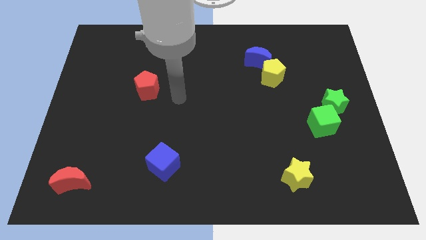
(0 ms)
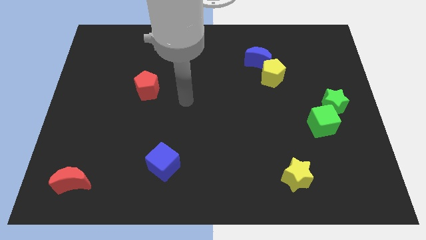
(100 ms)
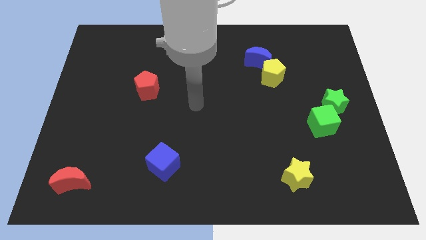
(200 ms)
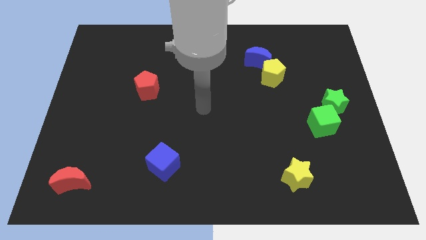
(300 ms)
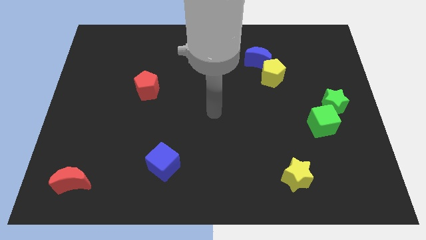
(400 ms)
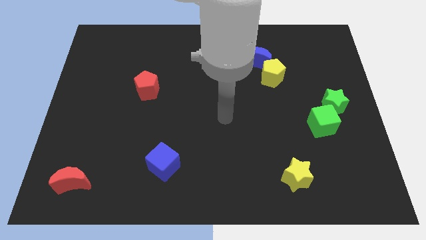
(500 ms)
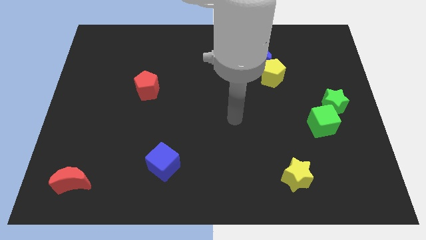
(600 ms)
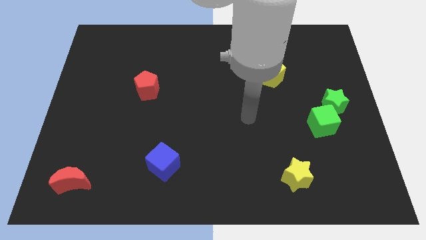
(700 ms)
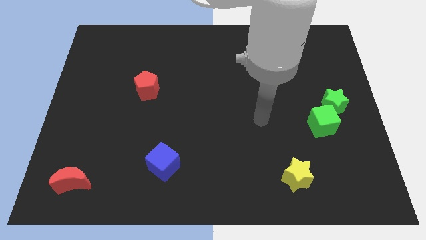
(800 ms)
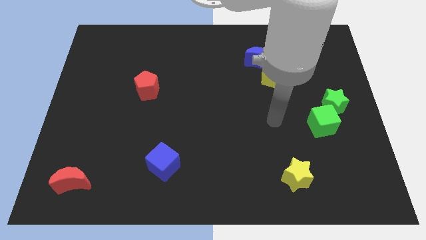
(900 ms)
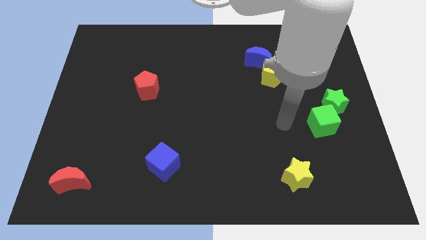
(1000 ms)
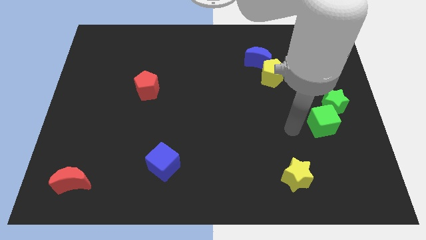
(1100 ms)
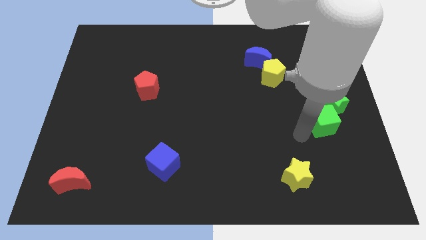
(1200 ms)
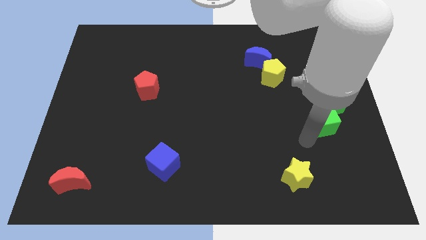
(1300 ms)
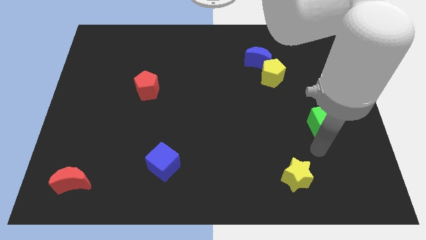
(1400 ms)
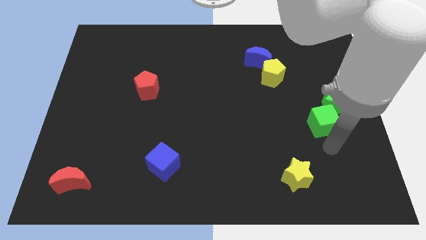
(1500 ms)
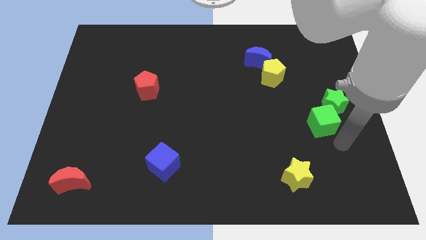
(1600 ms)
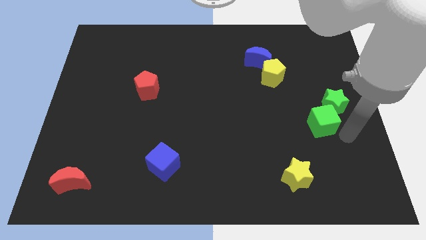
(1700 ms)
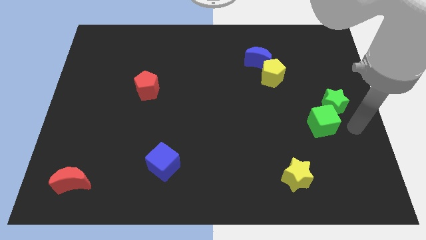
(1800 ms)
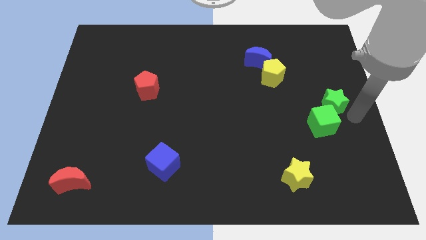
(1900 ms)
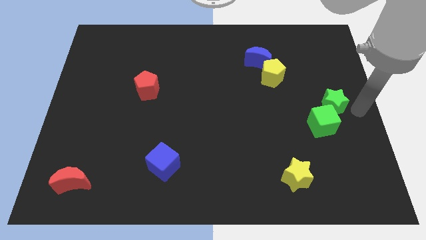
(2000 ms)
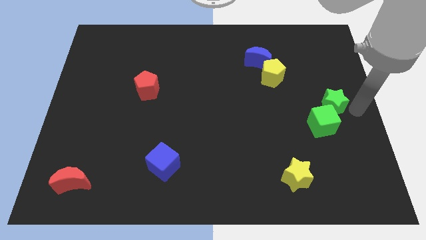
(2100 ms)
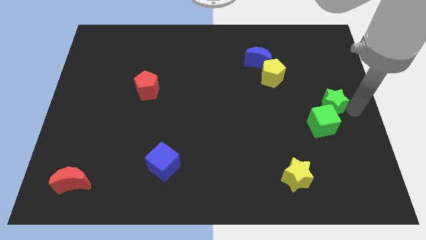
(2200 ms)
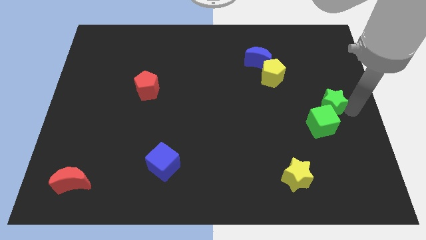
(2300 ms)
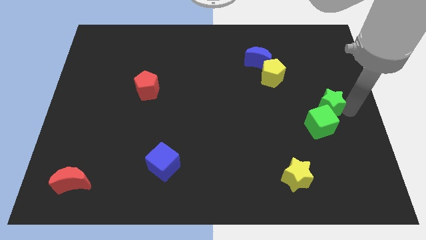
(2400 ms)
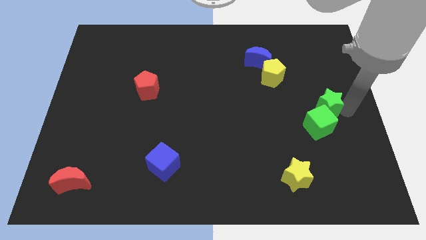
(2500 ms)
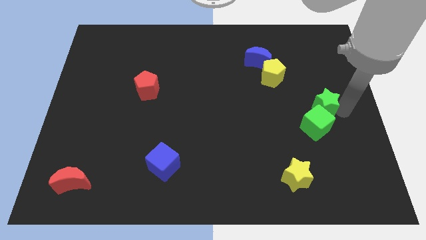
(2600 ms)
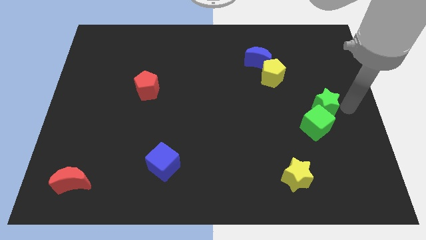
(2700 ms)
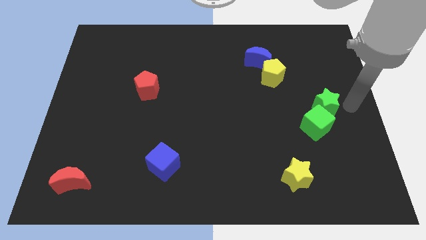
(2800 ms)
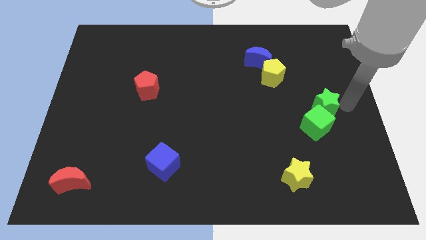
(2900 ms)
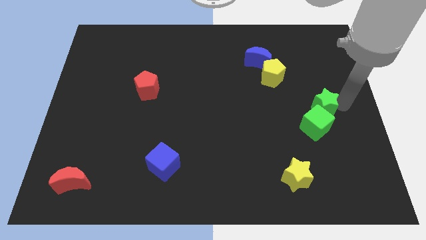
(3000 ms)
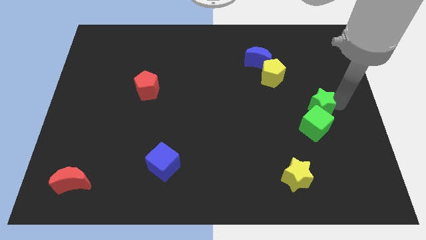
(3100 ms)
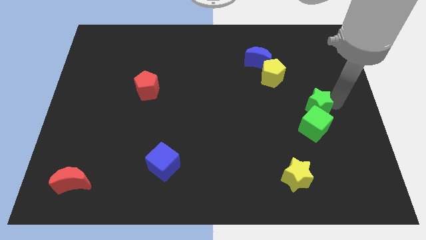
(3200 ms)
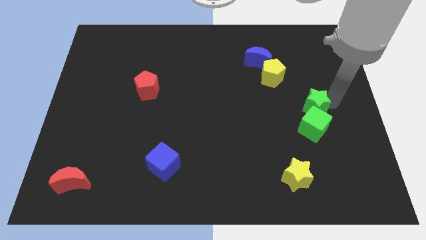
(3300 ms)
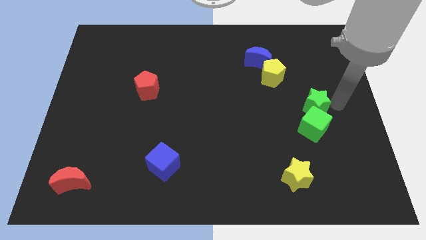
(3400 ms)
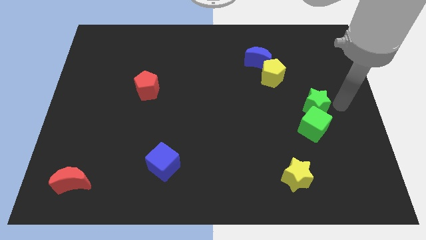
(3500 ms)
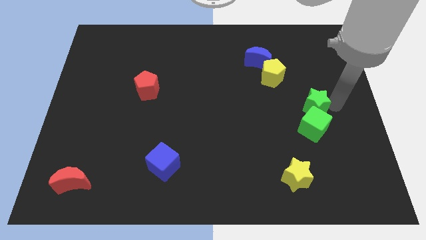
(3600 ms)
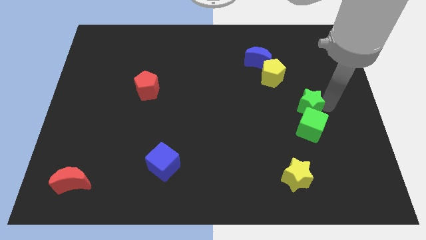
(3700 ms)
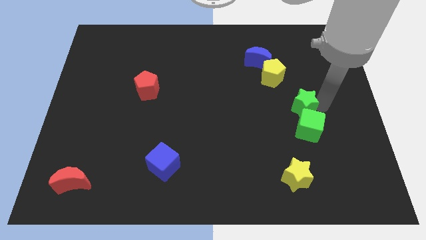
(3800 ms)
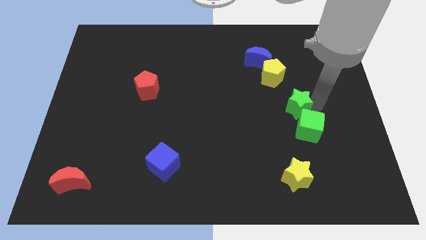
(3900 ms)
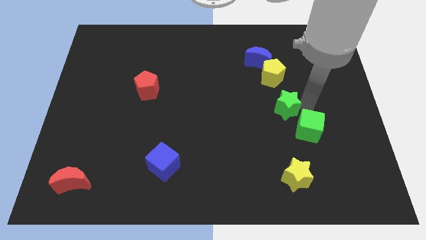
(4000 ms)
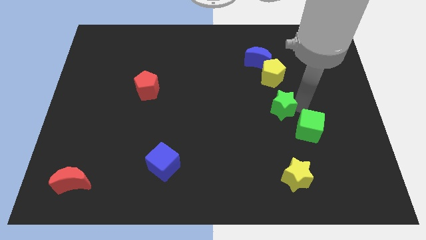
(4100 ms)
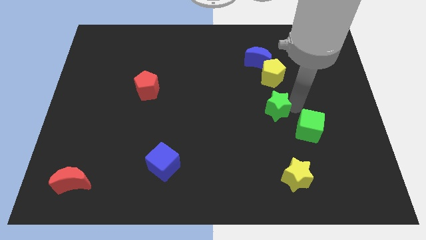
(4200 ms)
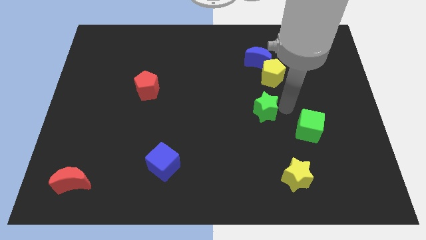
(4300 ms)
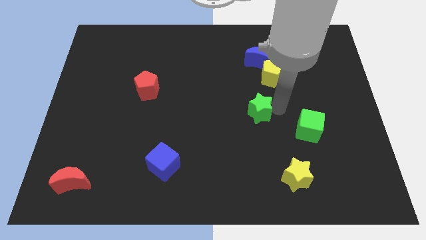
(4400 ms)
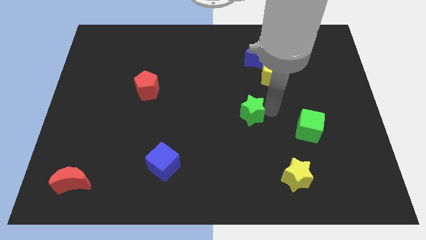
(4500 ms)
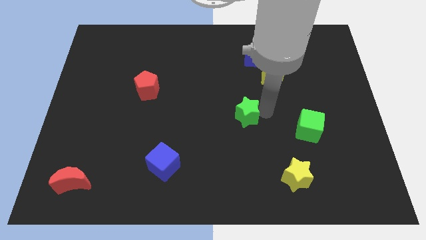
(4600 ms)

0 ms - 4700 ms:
slide the green star to the left

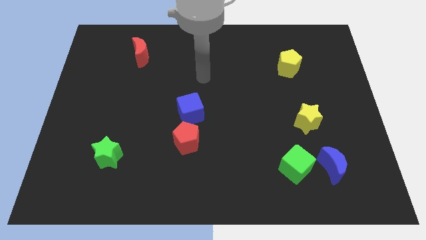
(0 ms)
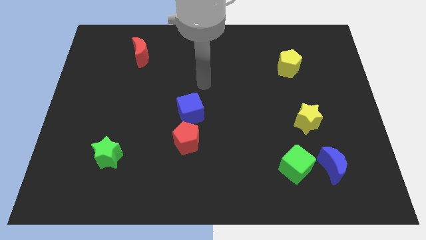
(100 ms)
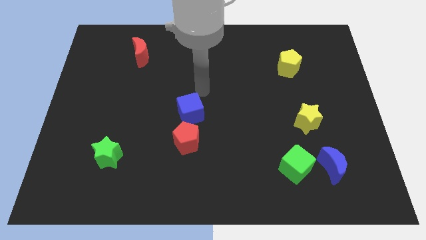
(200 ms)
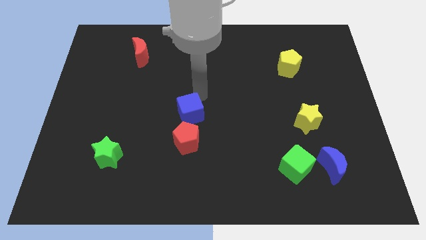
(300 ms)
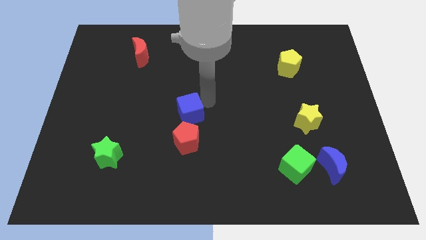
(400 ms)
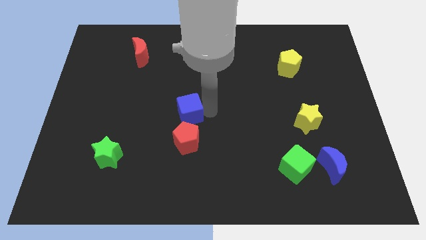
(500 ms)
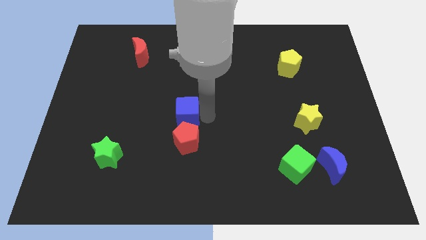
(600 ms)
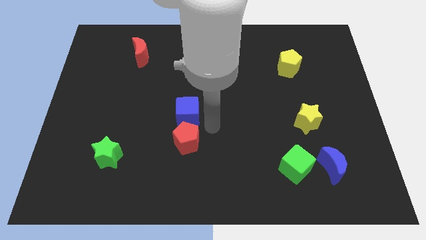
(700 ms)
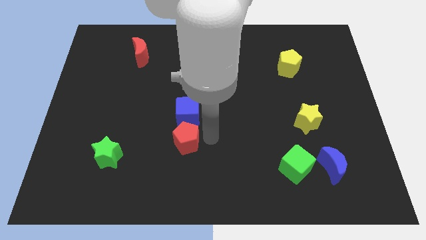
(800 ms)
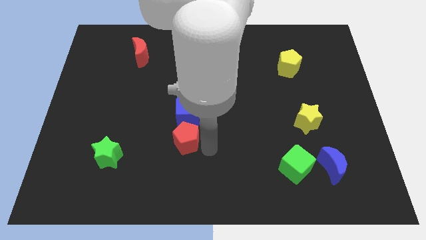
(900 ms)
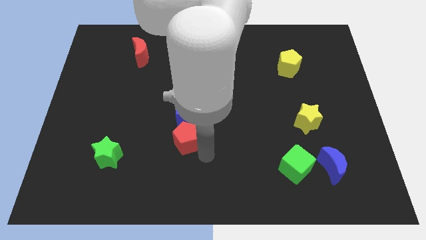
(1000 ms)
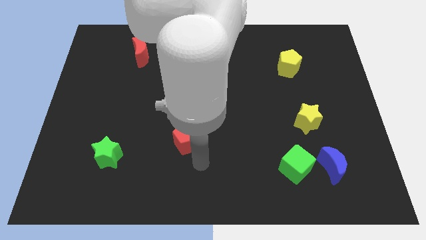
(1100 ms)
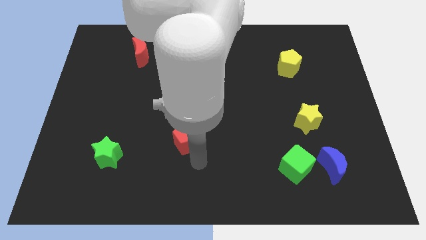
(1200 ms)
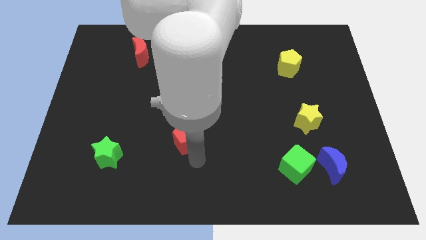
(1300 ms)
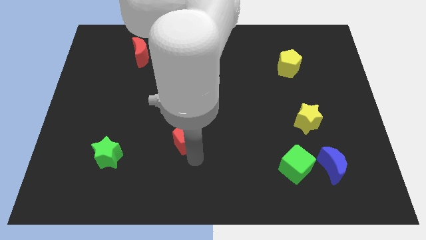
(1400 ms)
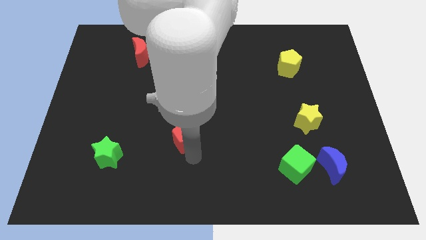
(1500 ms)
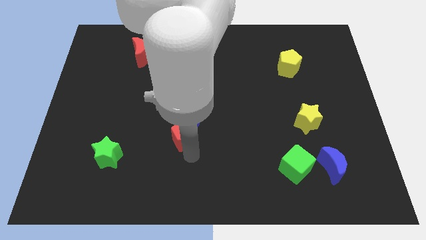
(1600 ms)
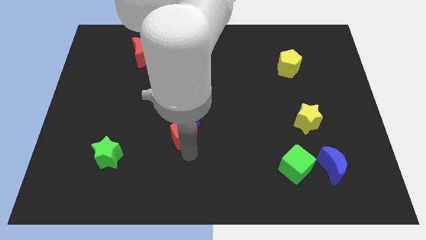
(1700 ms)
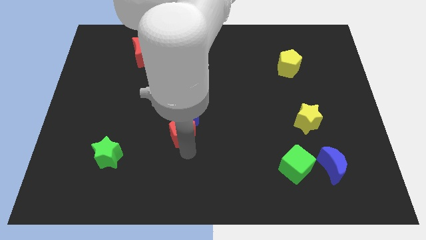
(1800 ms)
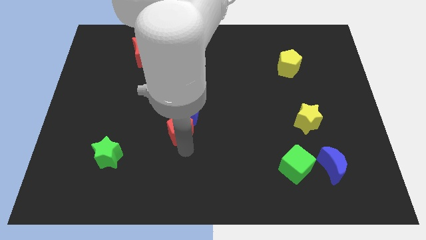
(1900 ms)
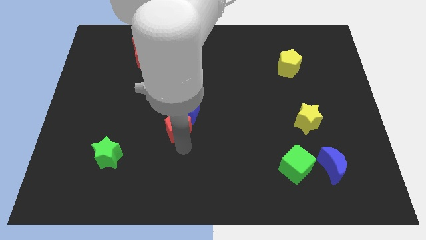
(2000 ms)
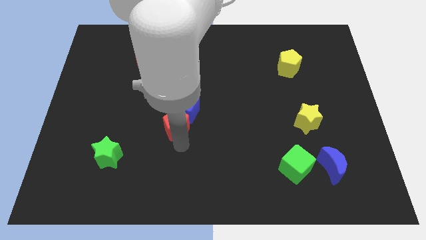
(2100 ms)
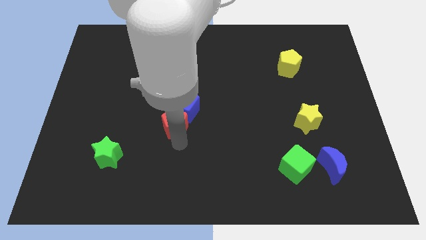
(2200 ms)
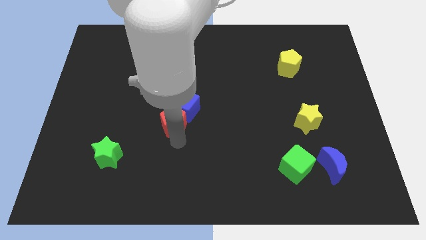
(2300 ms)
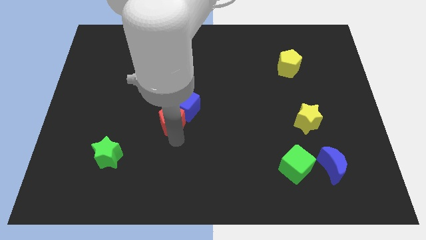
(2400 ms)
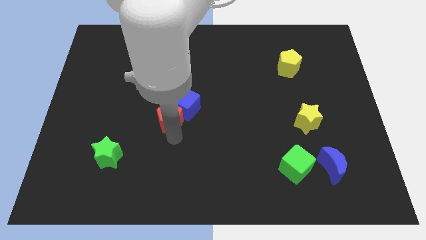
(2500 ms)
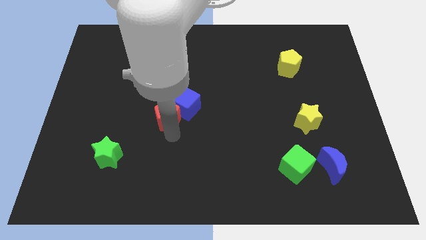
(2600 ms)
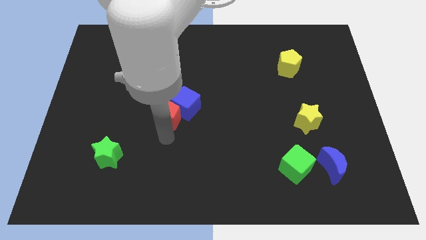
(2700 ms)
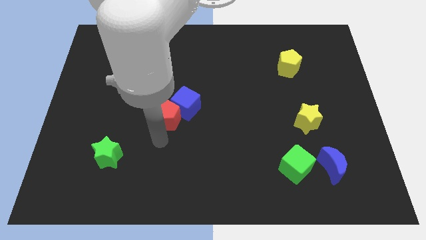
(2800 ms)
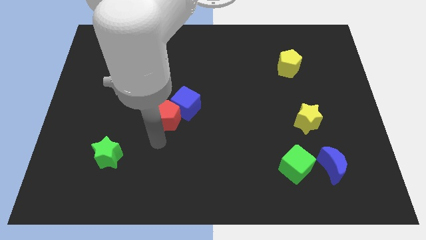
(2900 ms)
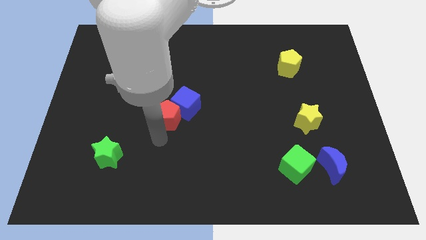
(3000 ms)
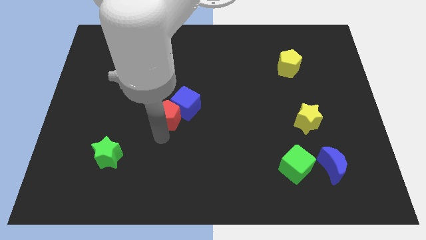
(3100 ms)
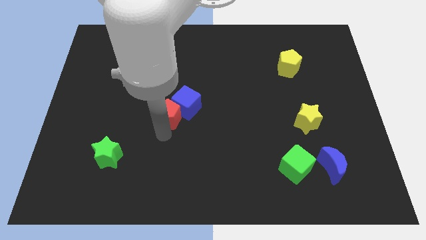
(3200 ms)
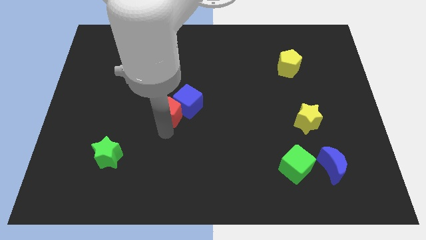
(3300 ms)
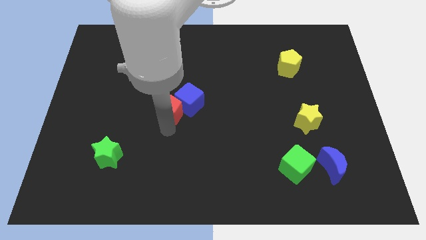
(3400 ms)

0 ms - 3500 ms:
push the red pentagon a bit up
